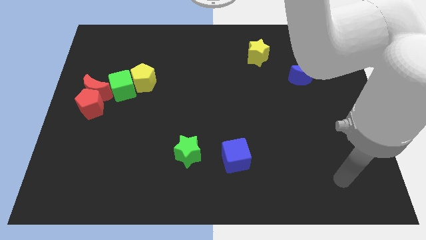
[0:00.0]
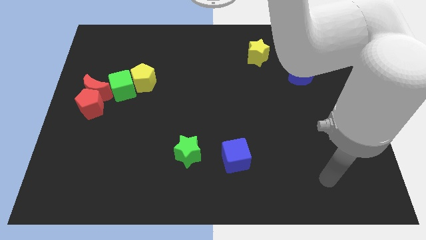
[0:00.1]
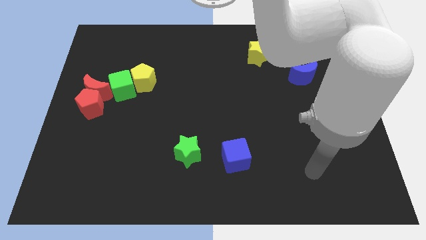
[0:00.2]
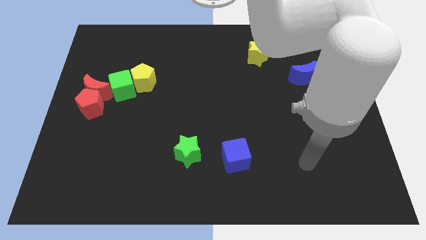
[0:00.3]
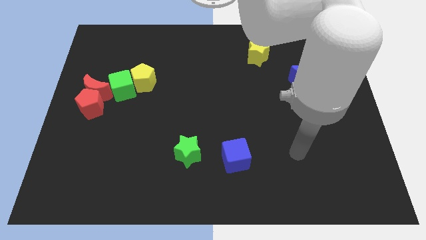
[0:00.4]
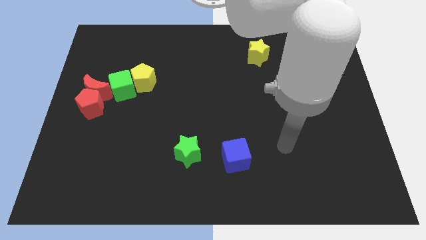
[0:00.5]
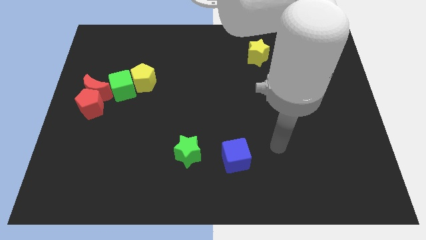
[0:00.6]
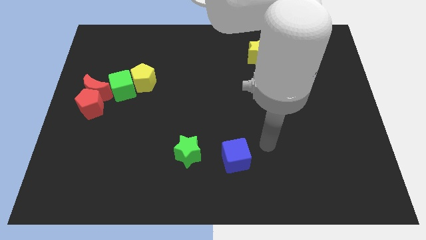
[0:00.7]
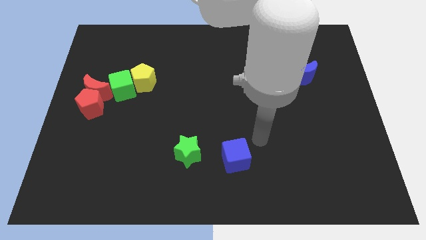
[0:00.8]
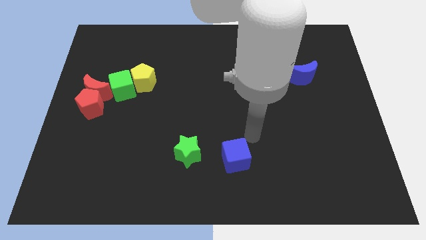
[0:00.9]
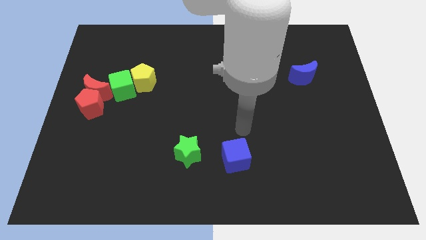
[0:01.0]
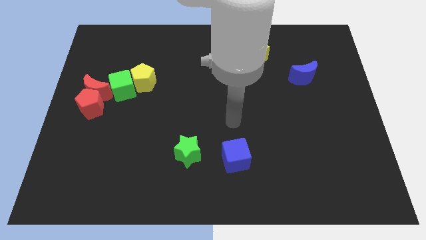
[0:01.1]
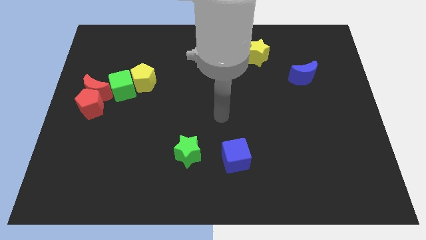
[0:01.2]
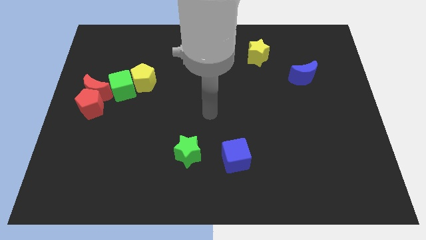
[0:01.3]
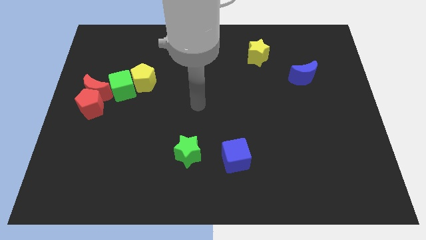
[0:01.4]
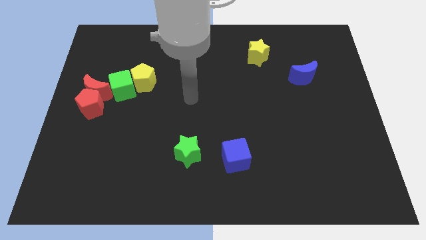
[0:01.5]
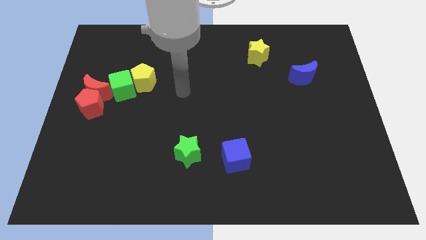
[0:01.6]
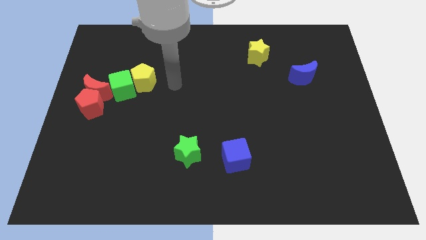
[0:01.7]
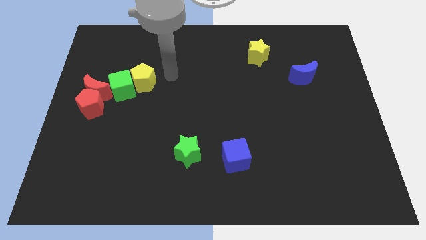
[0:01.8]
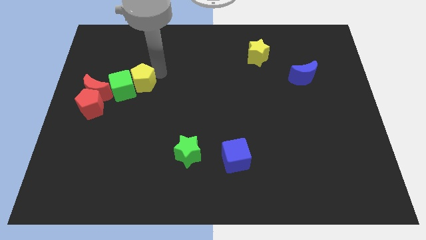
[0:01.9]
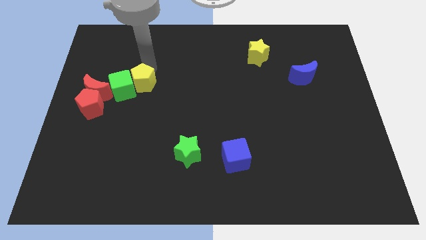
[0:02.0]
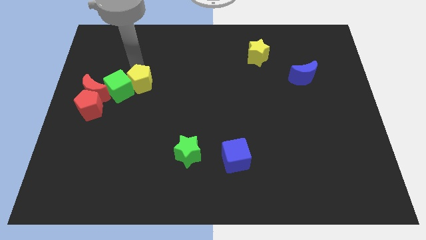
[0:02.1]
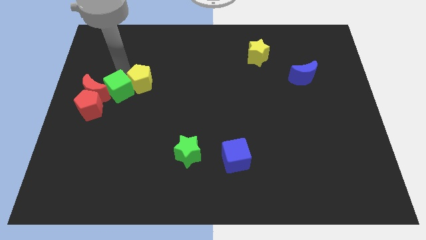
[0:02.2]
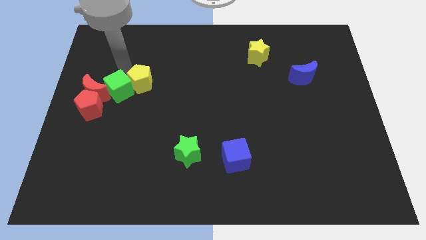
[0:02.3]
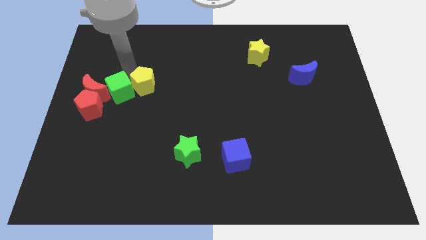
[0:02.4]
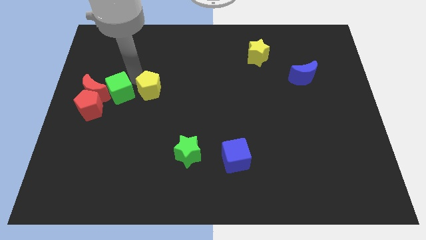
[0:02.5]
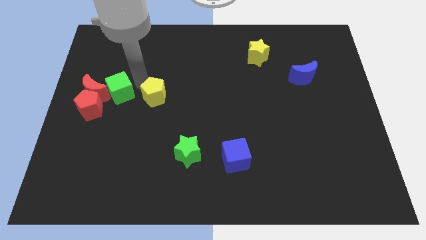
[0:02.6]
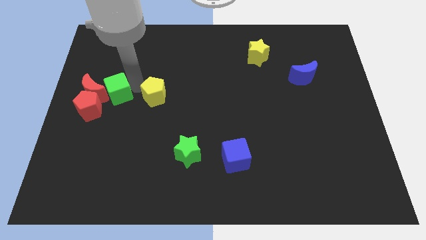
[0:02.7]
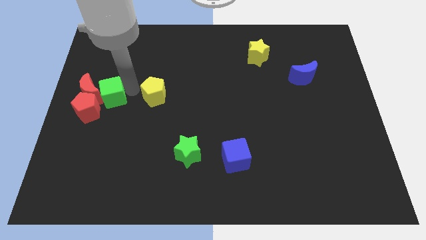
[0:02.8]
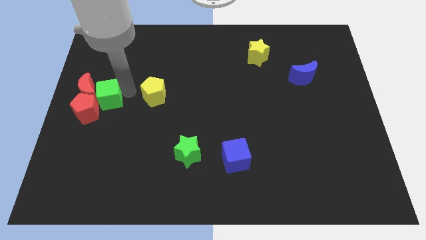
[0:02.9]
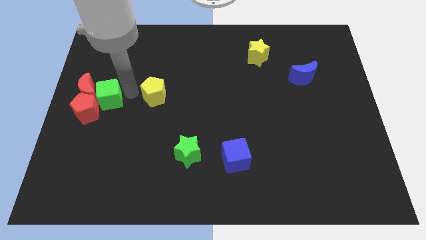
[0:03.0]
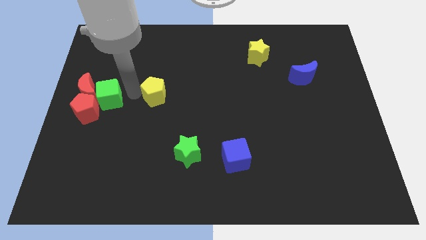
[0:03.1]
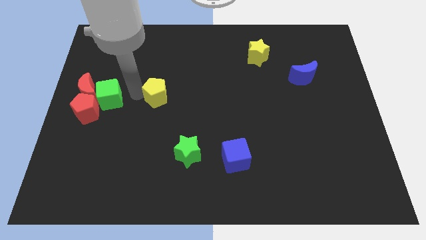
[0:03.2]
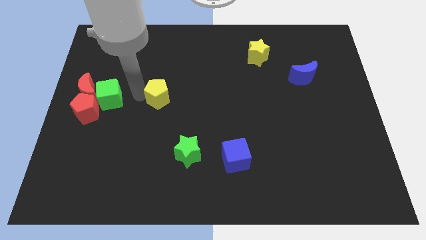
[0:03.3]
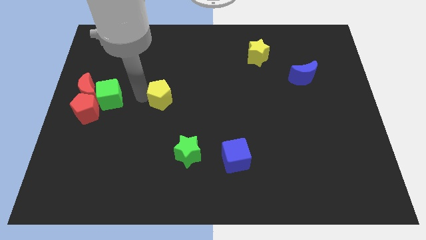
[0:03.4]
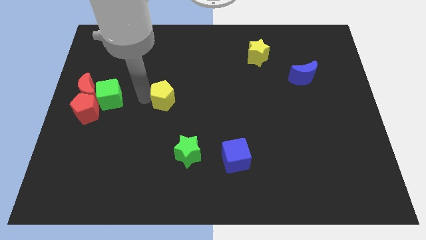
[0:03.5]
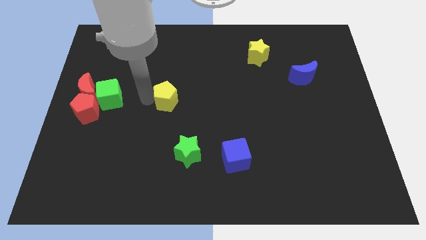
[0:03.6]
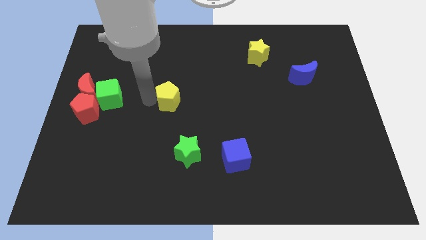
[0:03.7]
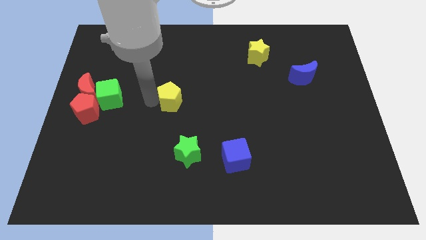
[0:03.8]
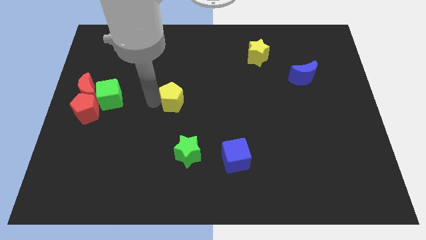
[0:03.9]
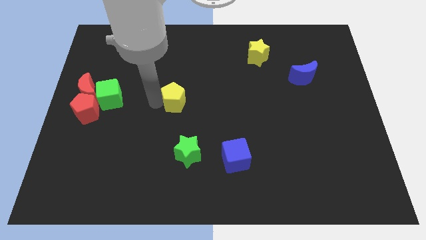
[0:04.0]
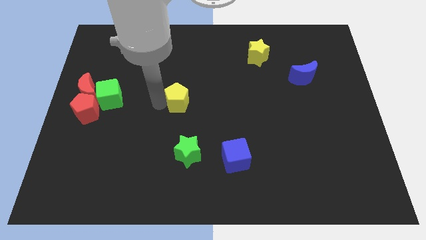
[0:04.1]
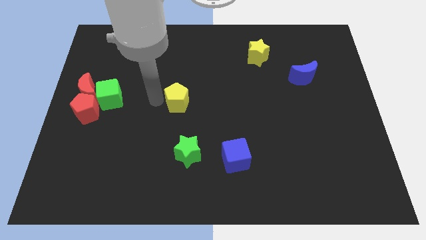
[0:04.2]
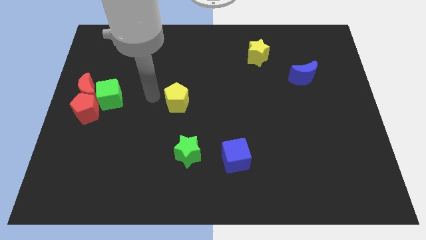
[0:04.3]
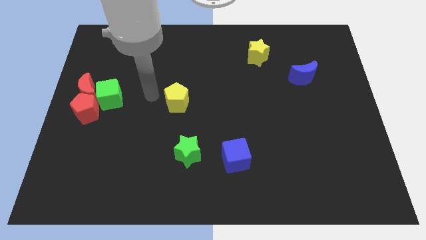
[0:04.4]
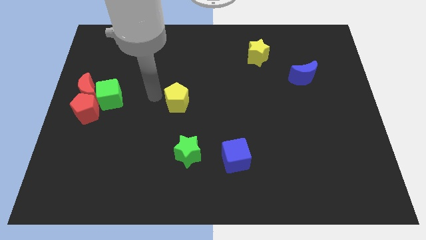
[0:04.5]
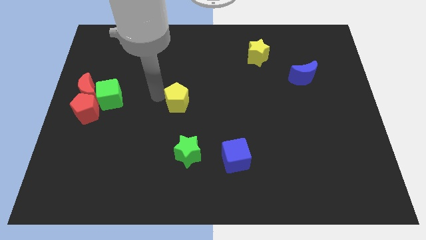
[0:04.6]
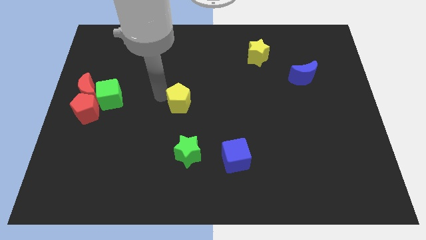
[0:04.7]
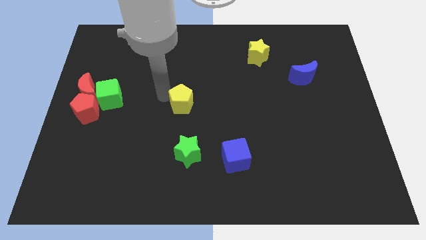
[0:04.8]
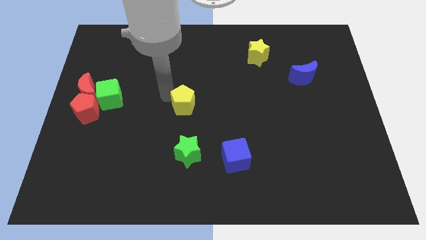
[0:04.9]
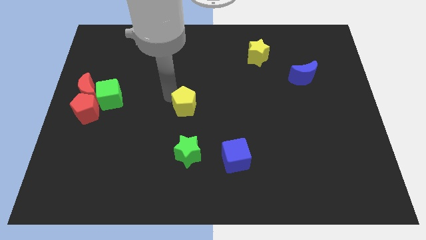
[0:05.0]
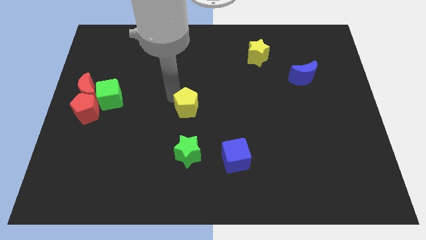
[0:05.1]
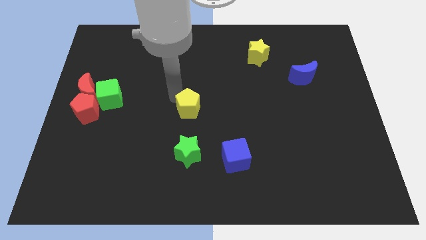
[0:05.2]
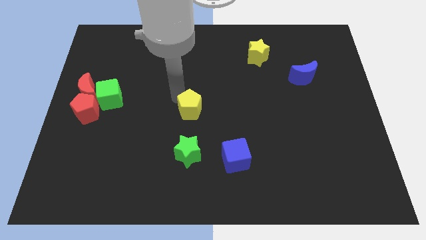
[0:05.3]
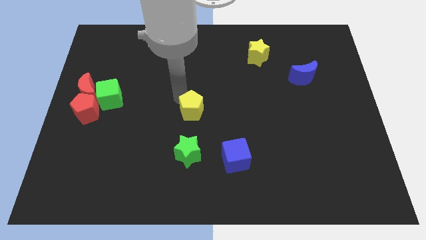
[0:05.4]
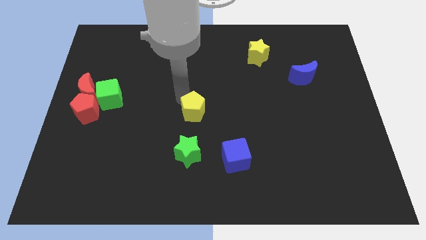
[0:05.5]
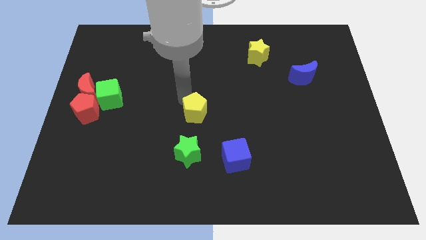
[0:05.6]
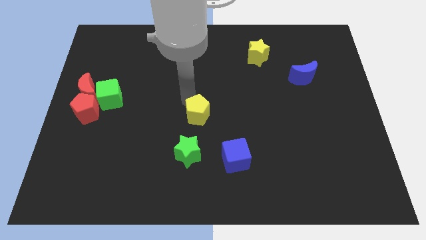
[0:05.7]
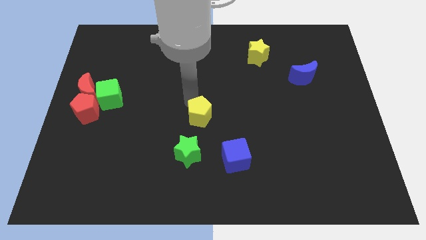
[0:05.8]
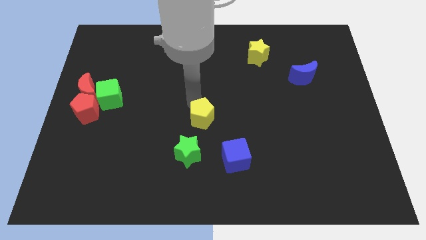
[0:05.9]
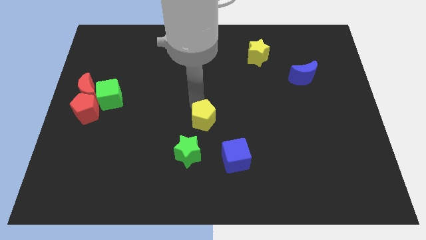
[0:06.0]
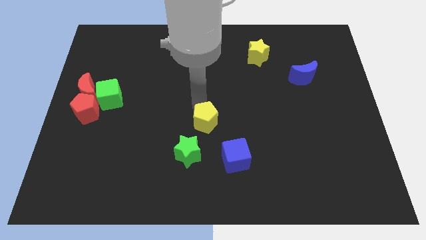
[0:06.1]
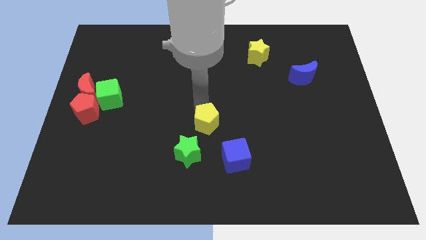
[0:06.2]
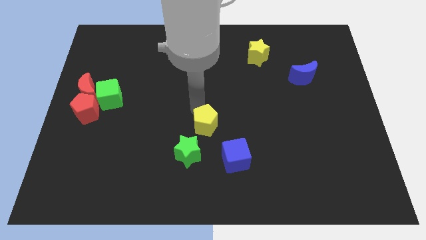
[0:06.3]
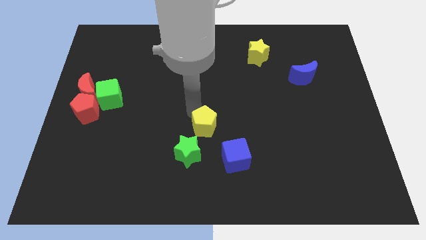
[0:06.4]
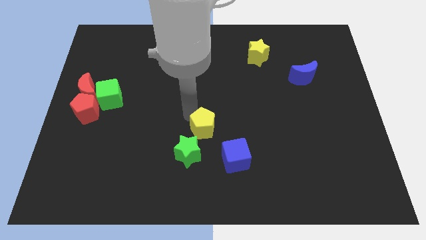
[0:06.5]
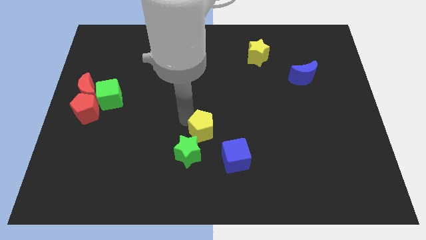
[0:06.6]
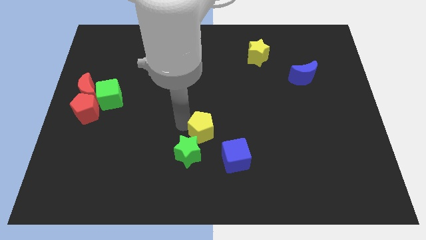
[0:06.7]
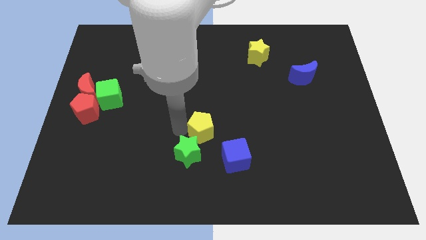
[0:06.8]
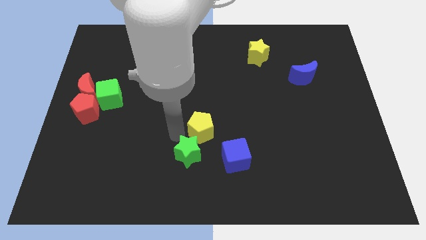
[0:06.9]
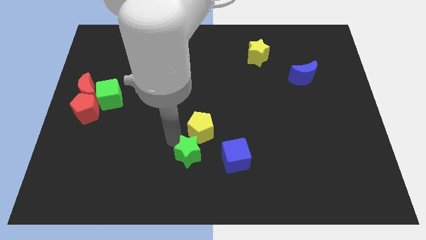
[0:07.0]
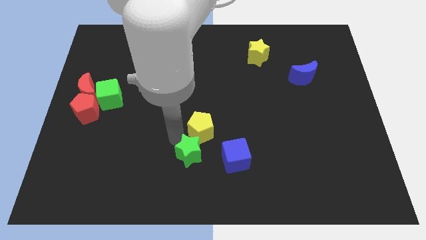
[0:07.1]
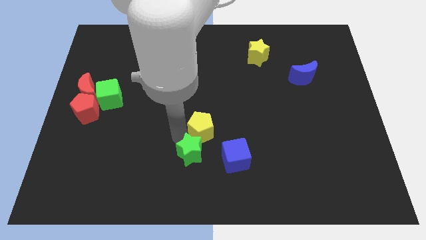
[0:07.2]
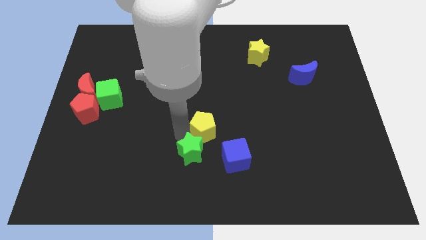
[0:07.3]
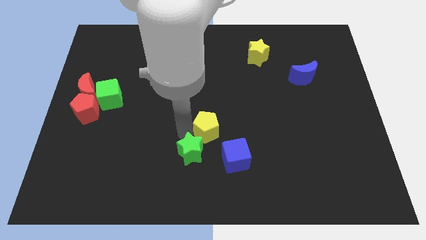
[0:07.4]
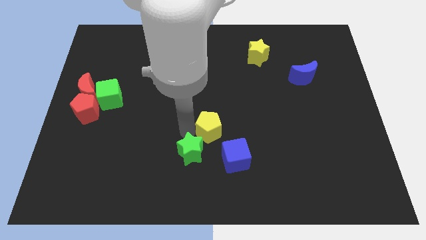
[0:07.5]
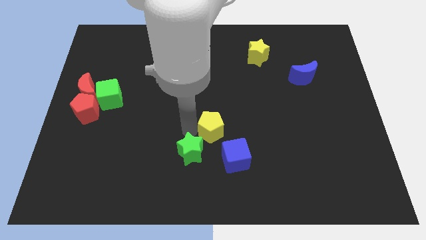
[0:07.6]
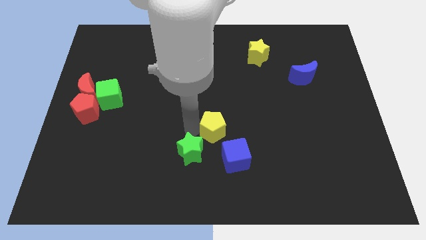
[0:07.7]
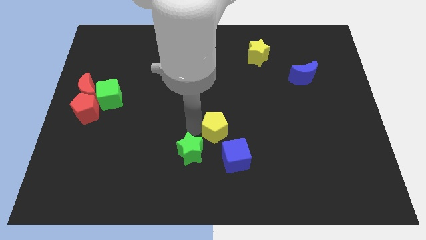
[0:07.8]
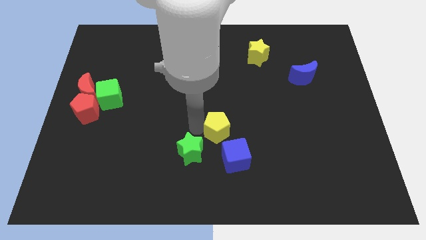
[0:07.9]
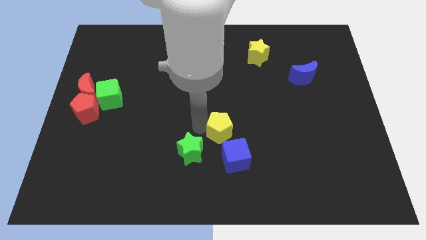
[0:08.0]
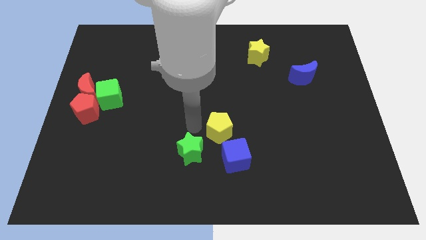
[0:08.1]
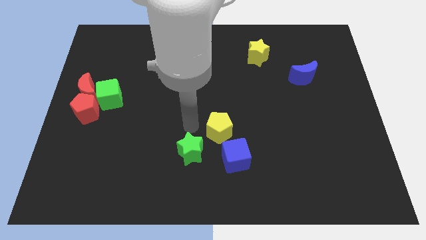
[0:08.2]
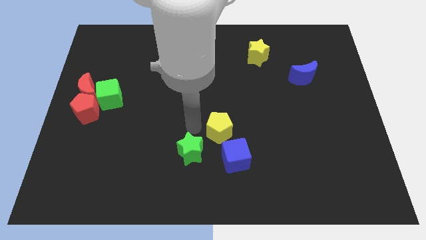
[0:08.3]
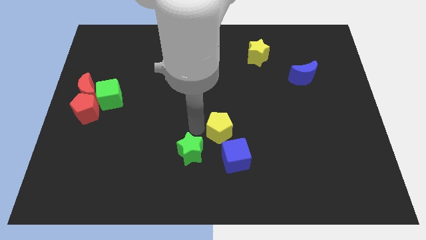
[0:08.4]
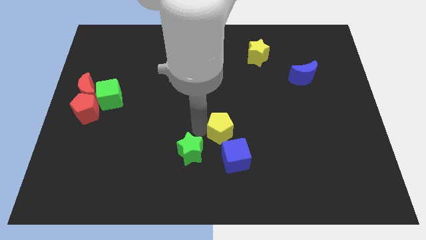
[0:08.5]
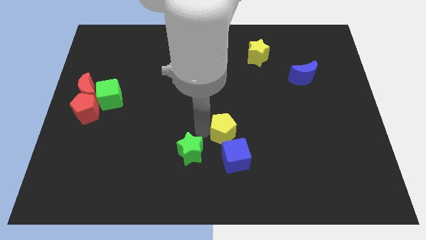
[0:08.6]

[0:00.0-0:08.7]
move the yellow pentagon right of the green star
